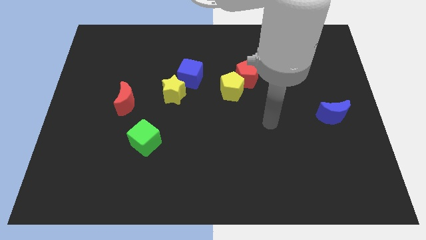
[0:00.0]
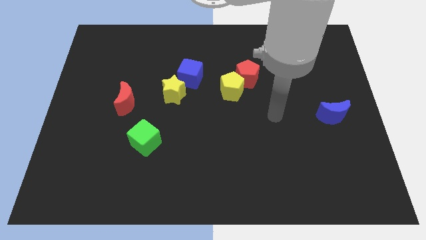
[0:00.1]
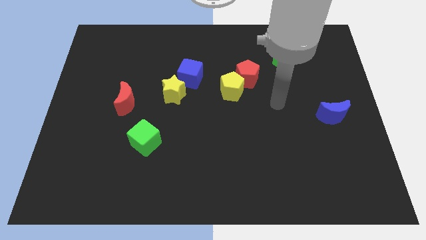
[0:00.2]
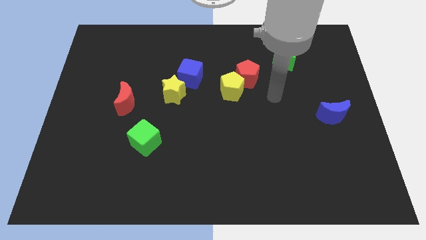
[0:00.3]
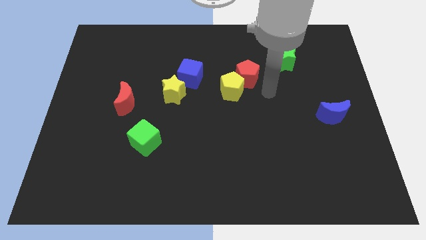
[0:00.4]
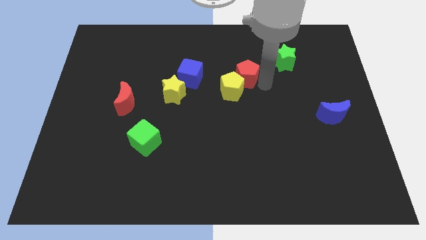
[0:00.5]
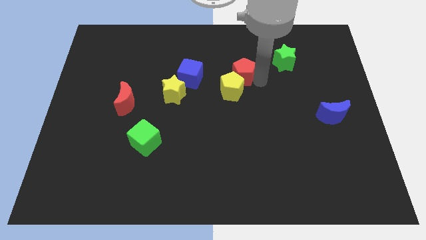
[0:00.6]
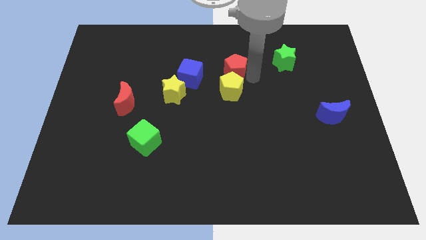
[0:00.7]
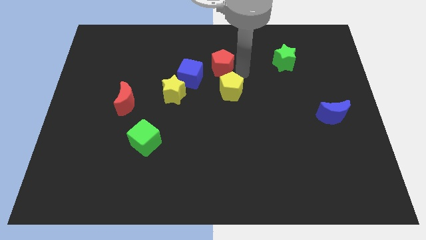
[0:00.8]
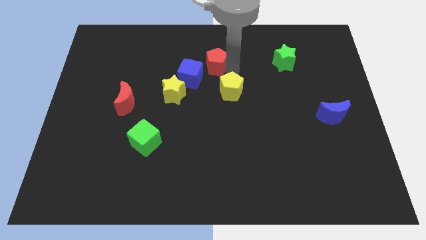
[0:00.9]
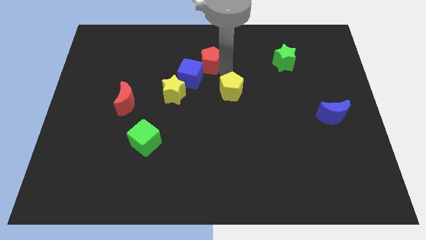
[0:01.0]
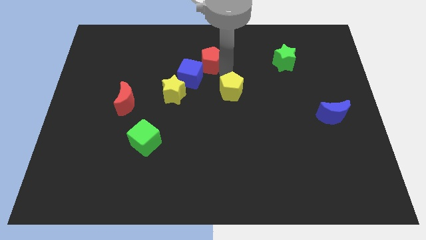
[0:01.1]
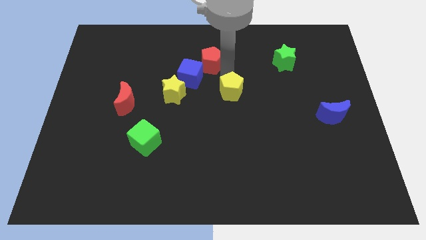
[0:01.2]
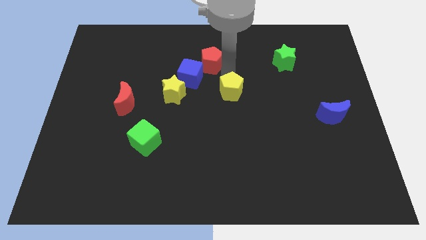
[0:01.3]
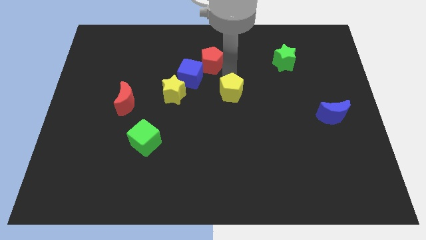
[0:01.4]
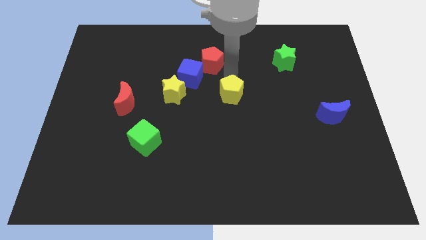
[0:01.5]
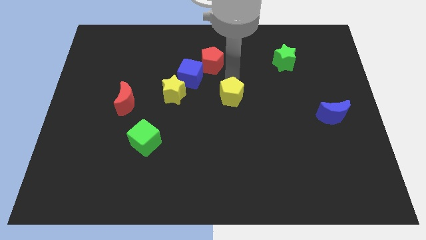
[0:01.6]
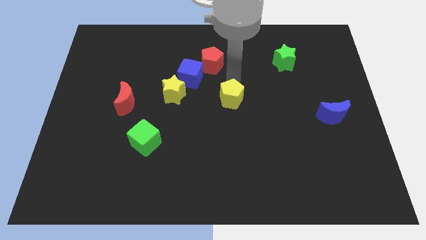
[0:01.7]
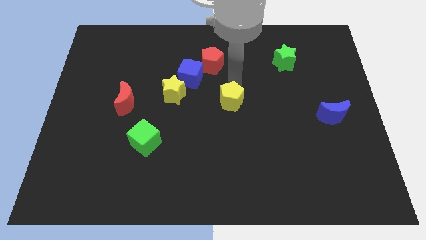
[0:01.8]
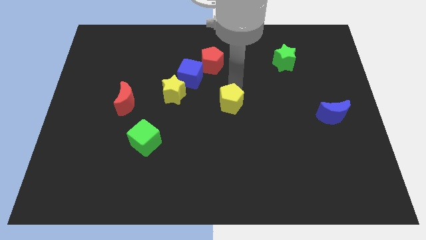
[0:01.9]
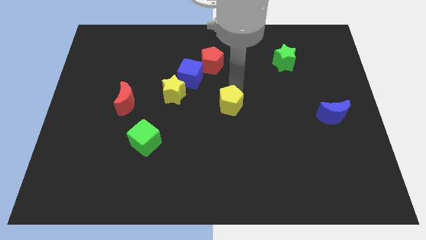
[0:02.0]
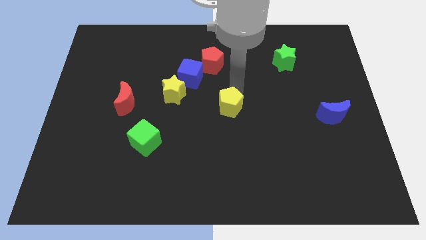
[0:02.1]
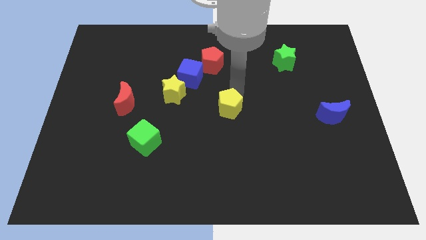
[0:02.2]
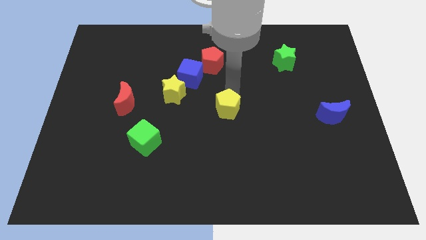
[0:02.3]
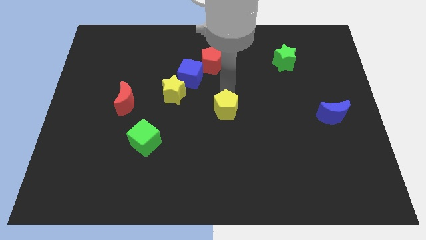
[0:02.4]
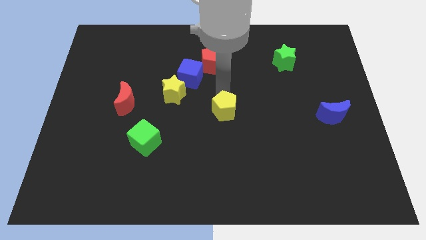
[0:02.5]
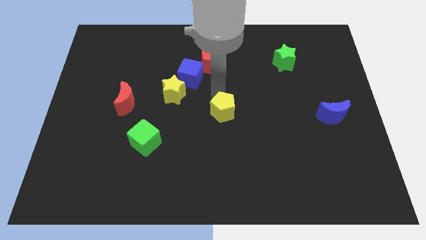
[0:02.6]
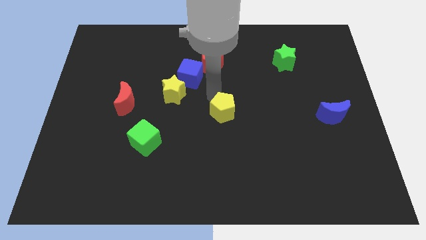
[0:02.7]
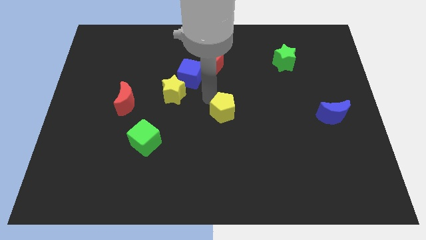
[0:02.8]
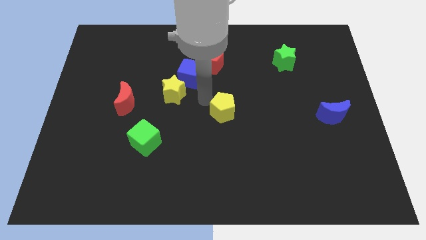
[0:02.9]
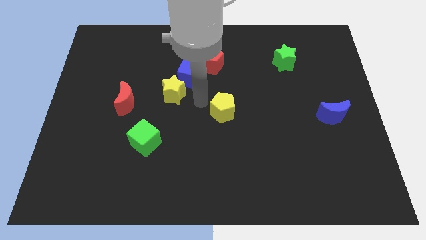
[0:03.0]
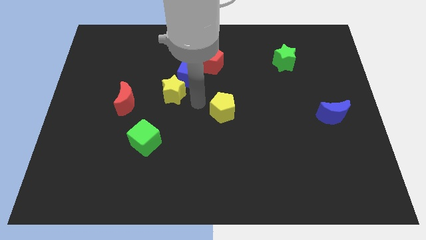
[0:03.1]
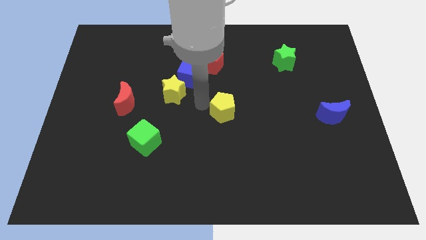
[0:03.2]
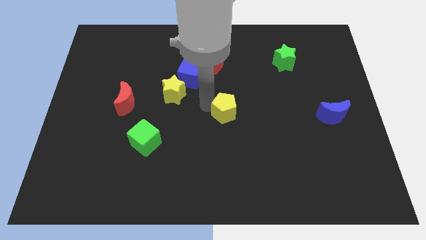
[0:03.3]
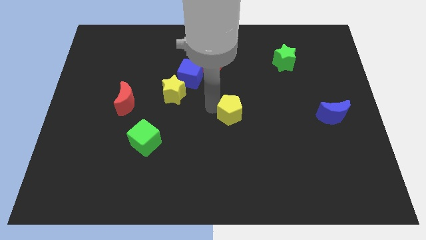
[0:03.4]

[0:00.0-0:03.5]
move the yellow pentagon downwards slightly

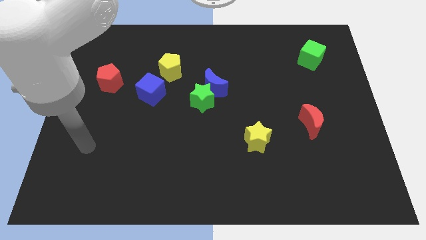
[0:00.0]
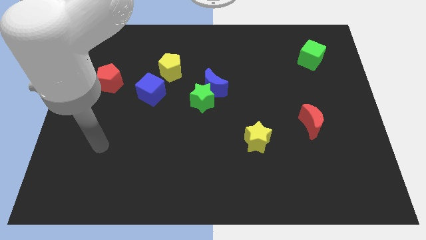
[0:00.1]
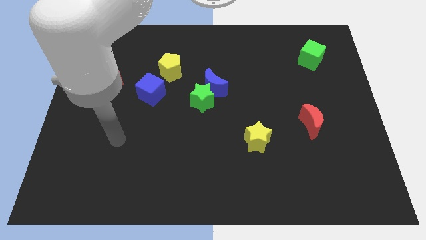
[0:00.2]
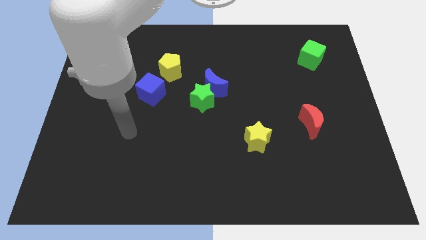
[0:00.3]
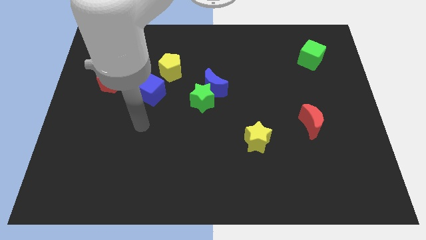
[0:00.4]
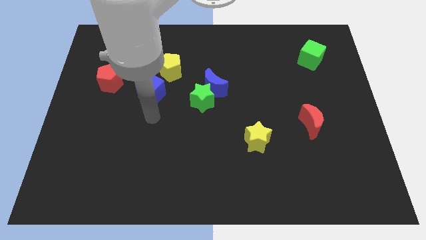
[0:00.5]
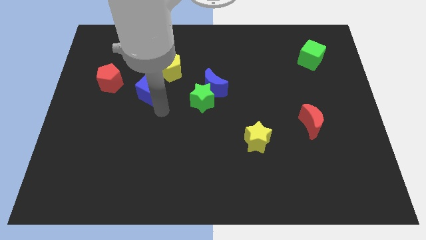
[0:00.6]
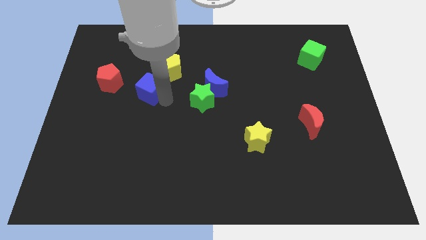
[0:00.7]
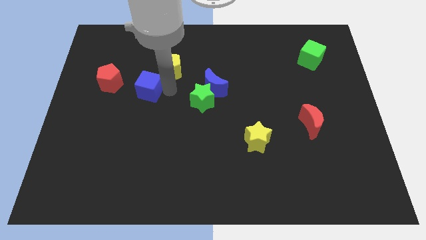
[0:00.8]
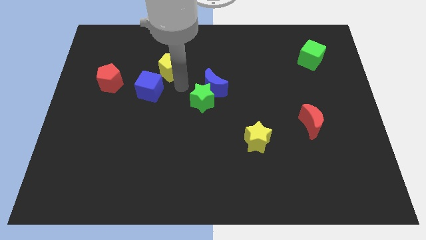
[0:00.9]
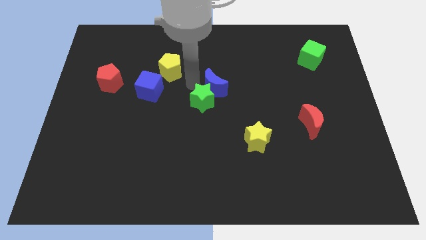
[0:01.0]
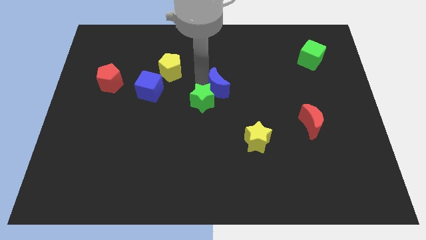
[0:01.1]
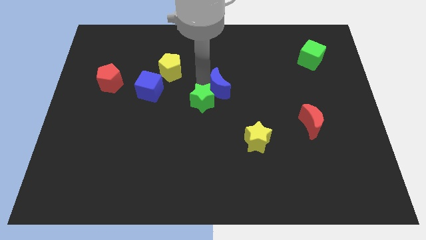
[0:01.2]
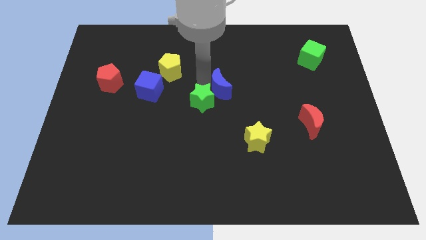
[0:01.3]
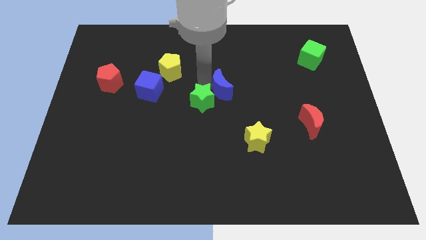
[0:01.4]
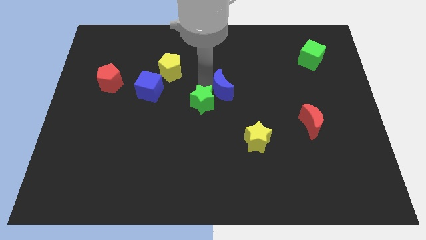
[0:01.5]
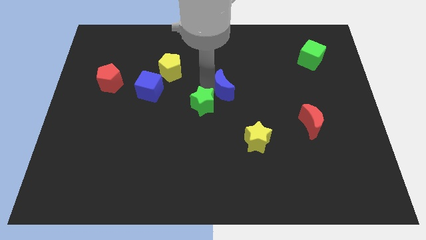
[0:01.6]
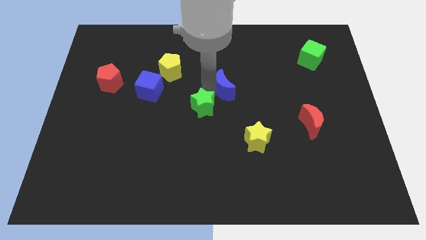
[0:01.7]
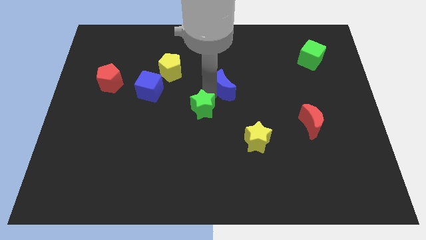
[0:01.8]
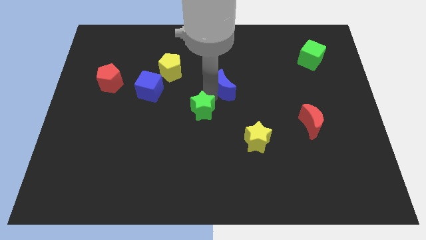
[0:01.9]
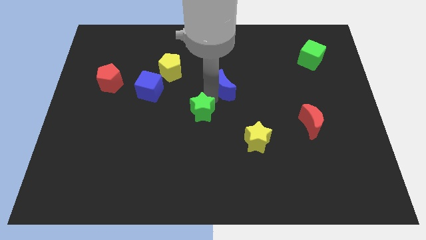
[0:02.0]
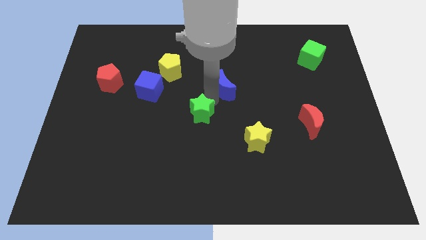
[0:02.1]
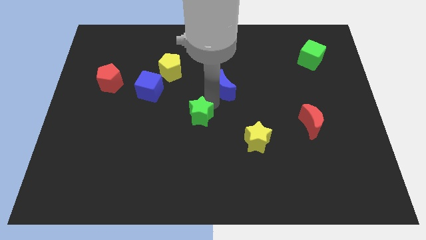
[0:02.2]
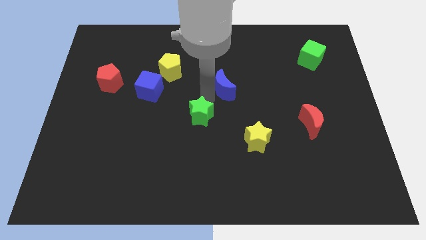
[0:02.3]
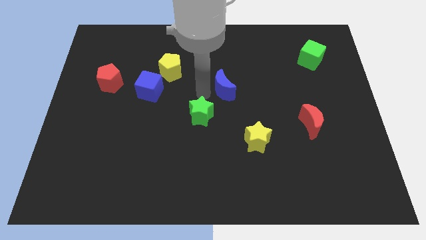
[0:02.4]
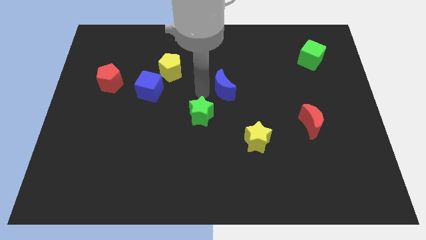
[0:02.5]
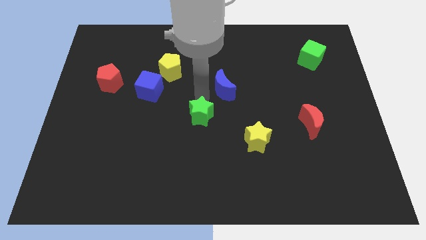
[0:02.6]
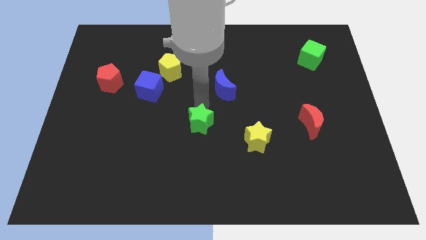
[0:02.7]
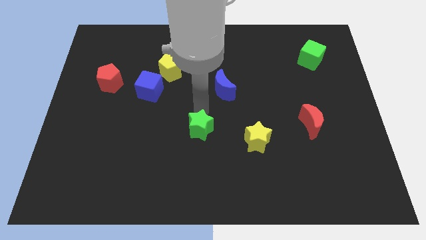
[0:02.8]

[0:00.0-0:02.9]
slide the green star down a little bit

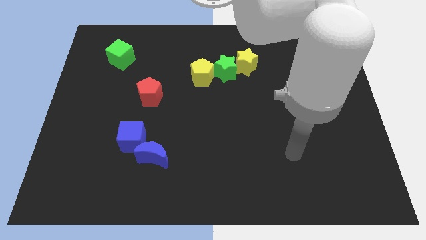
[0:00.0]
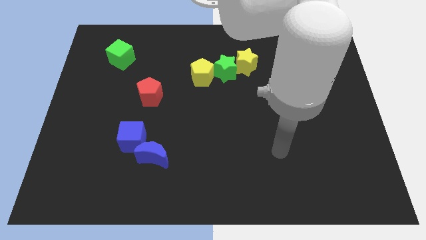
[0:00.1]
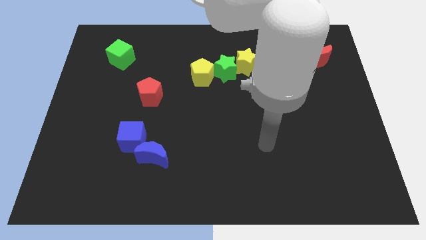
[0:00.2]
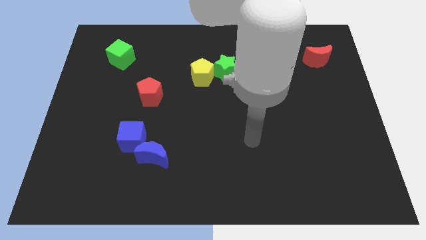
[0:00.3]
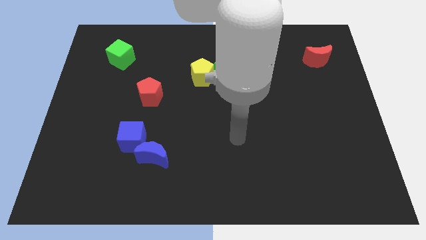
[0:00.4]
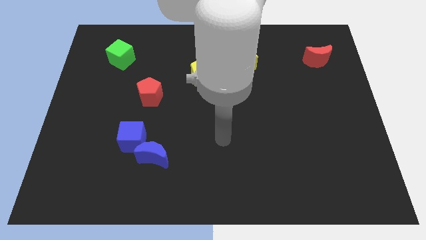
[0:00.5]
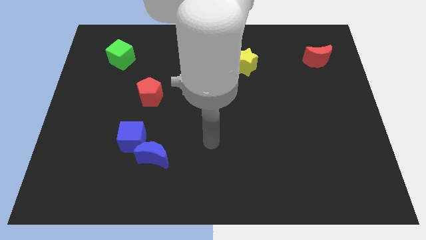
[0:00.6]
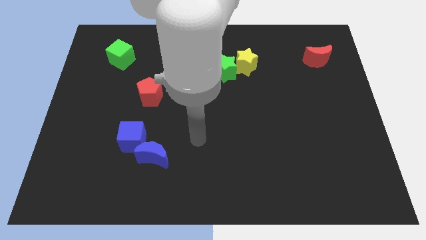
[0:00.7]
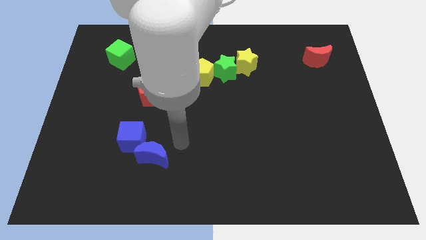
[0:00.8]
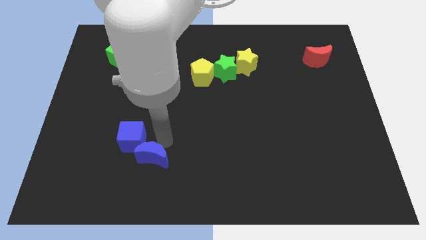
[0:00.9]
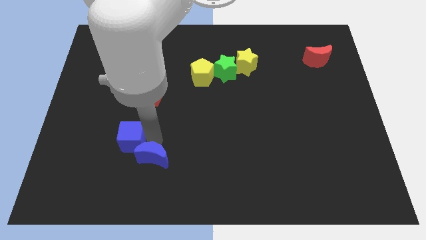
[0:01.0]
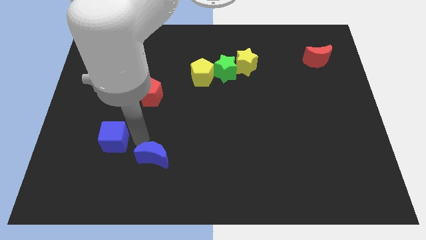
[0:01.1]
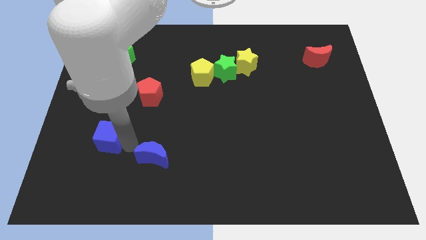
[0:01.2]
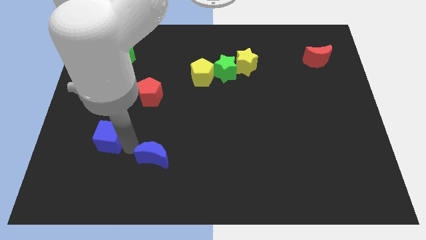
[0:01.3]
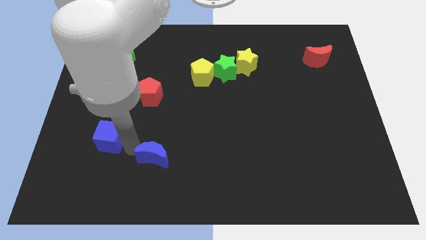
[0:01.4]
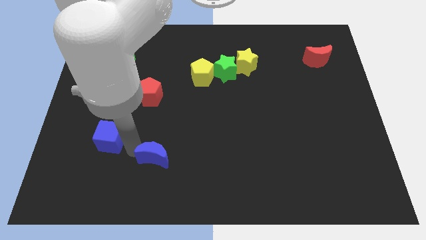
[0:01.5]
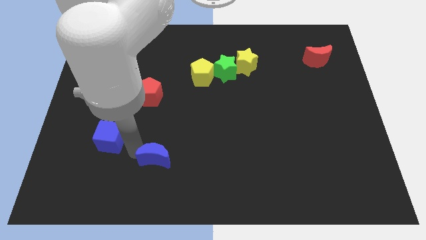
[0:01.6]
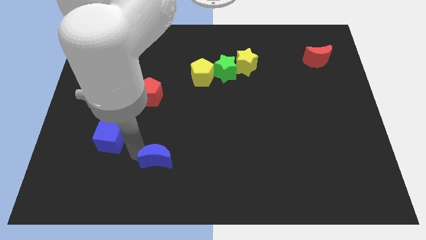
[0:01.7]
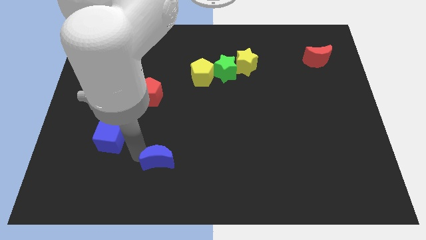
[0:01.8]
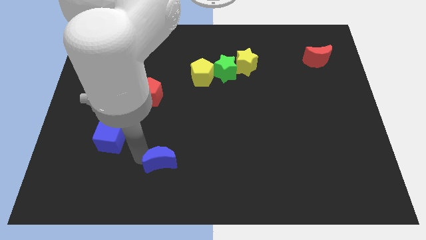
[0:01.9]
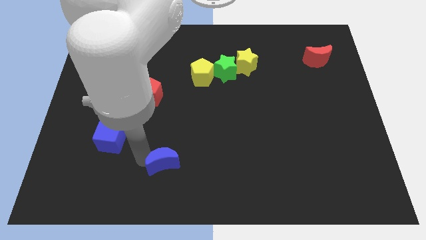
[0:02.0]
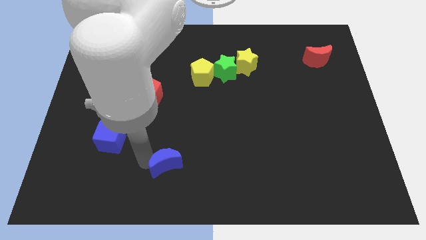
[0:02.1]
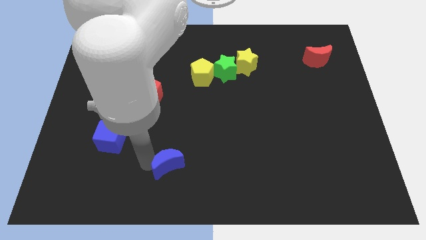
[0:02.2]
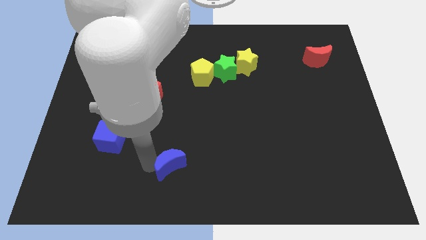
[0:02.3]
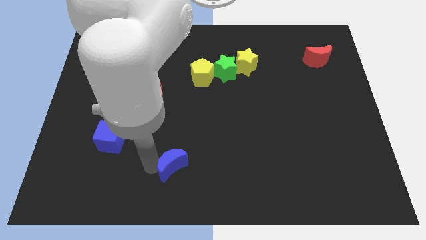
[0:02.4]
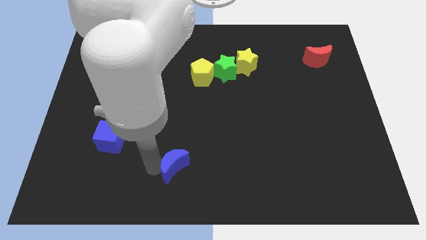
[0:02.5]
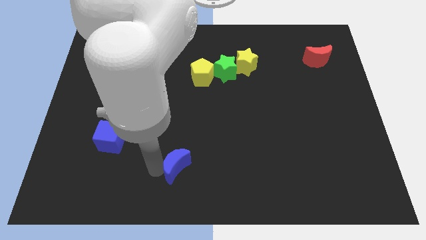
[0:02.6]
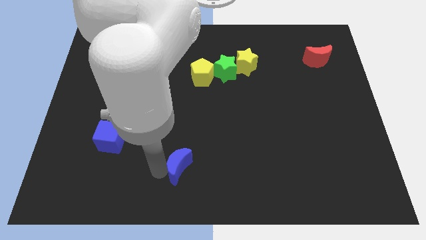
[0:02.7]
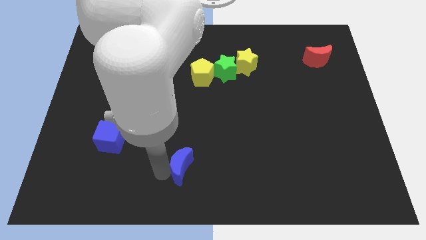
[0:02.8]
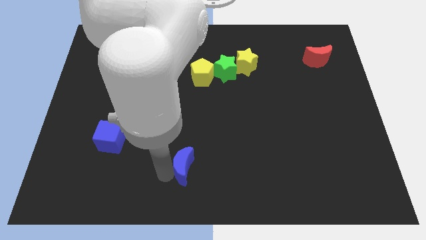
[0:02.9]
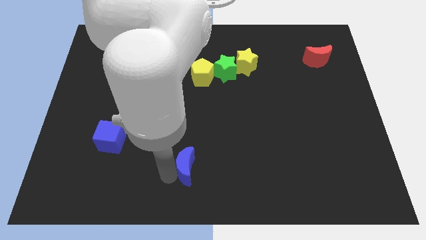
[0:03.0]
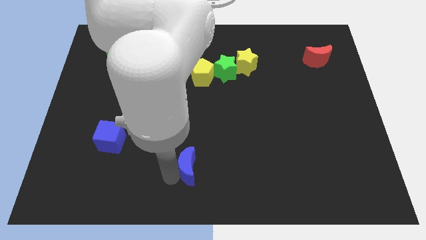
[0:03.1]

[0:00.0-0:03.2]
slide the blue moon right somewhat
